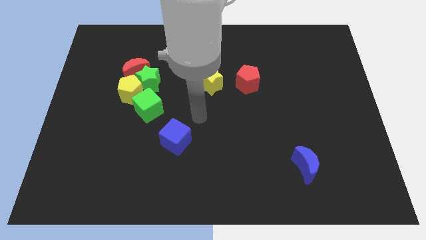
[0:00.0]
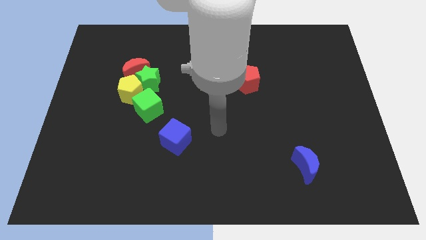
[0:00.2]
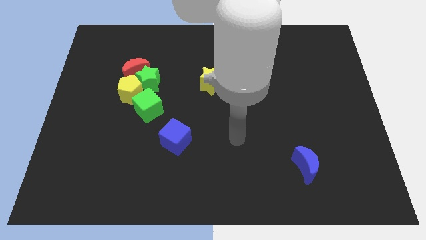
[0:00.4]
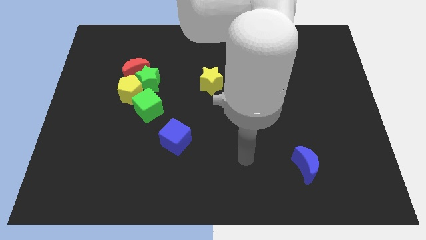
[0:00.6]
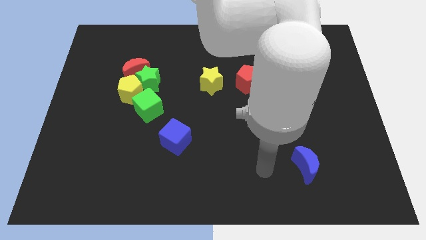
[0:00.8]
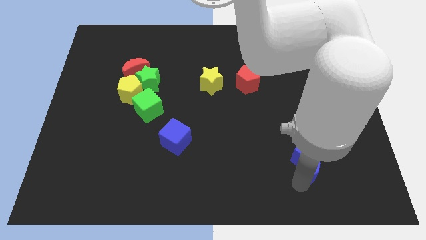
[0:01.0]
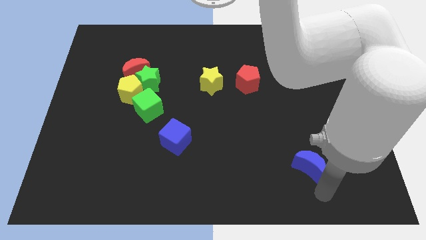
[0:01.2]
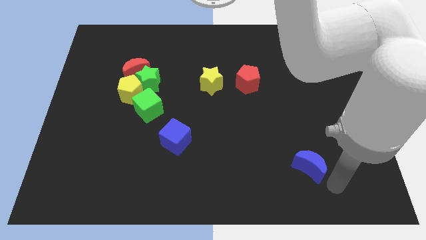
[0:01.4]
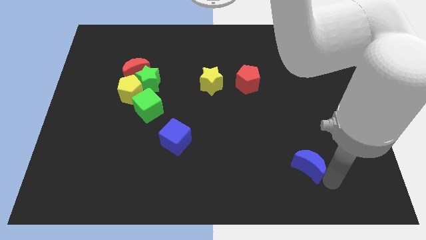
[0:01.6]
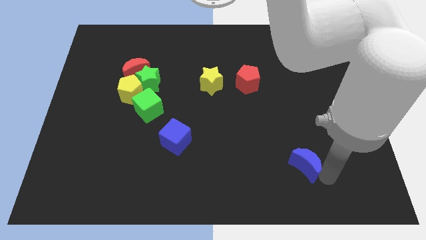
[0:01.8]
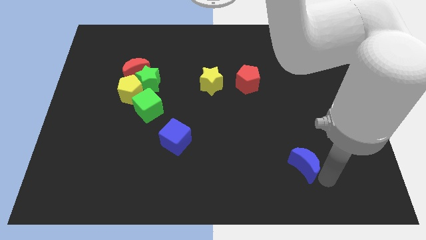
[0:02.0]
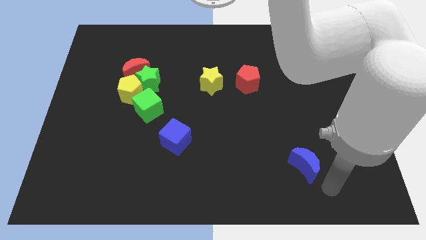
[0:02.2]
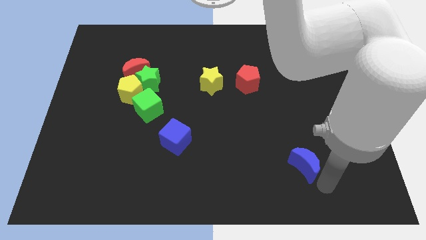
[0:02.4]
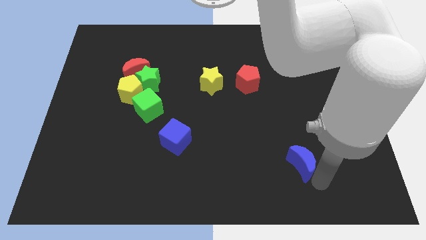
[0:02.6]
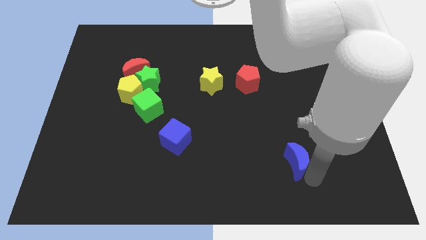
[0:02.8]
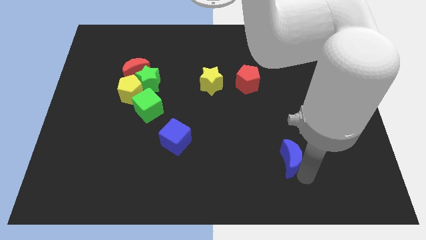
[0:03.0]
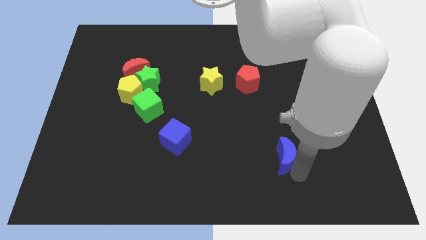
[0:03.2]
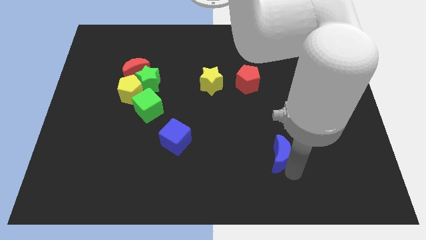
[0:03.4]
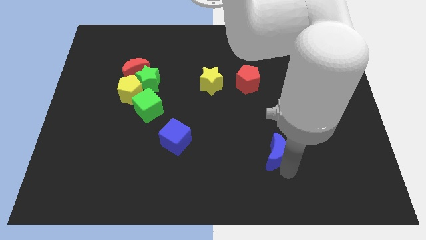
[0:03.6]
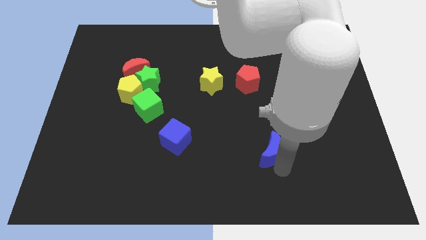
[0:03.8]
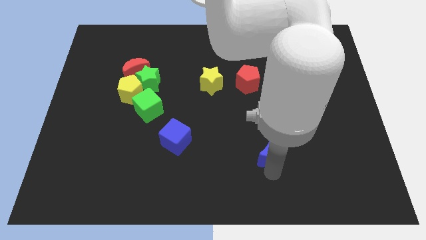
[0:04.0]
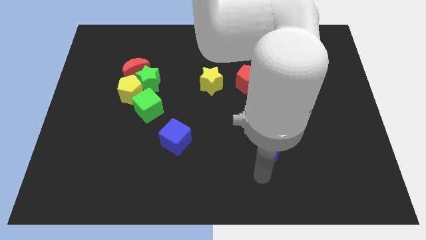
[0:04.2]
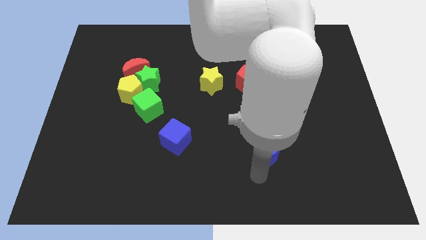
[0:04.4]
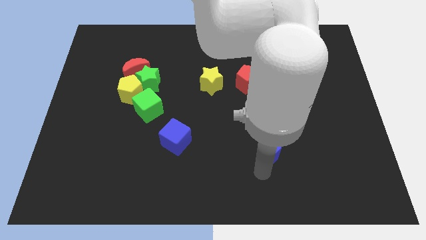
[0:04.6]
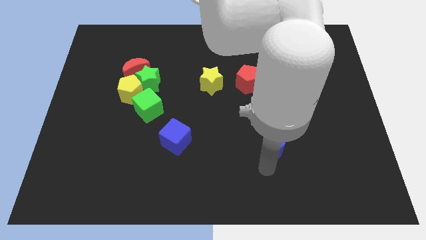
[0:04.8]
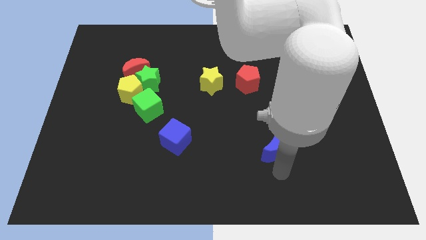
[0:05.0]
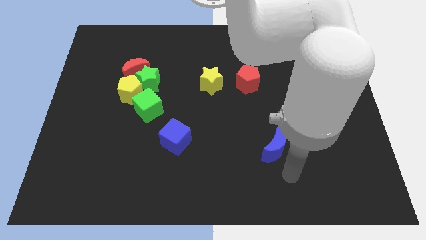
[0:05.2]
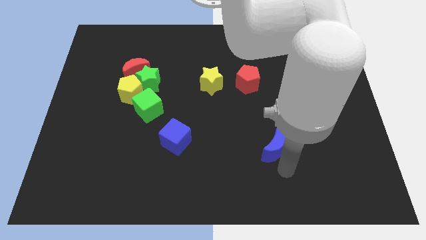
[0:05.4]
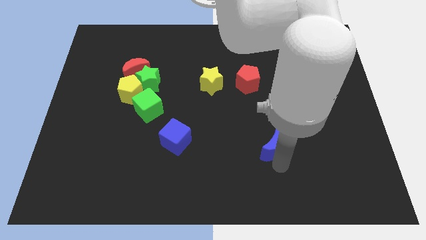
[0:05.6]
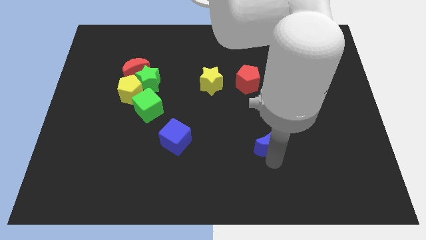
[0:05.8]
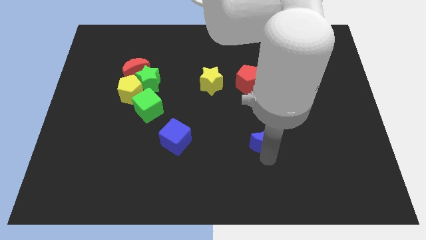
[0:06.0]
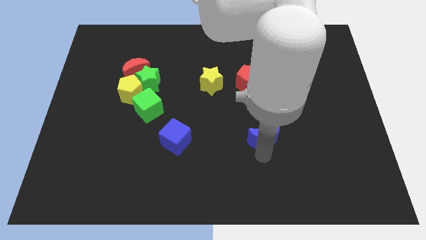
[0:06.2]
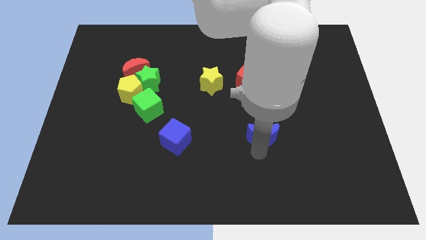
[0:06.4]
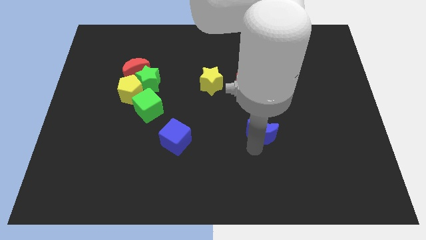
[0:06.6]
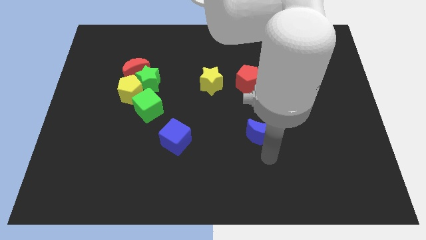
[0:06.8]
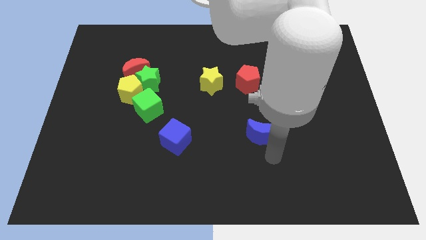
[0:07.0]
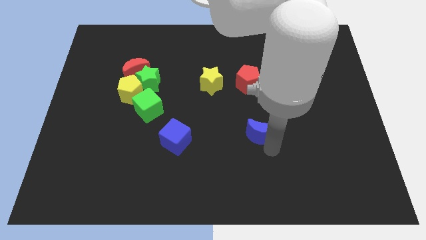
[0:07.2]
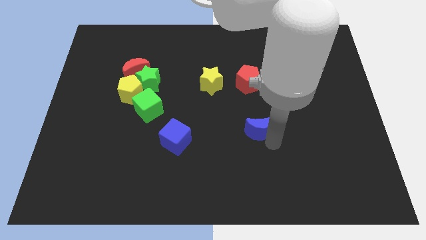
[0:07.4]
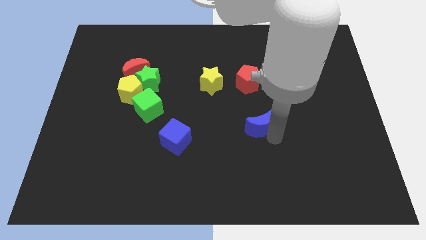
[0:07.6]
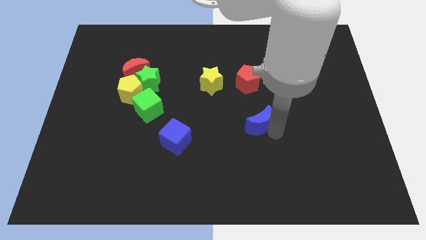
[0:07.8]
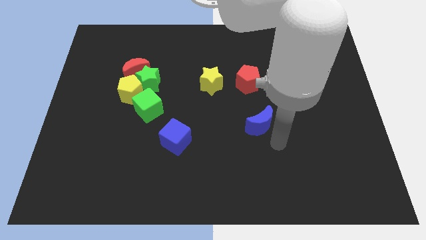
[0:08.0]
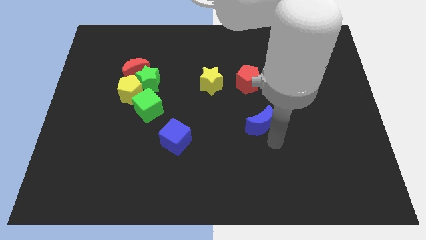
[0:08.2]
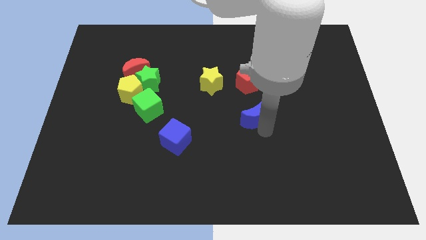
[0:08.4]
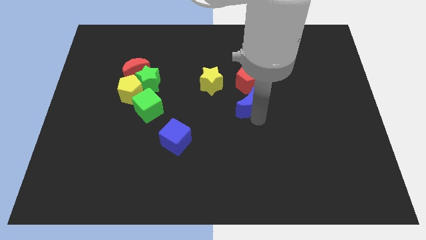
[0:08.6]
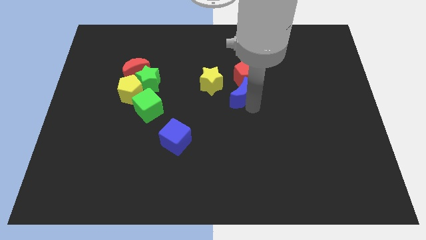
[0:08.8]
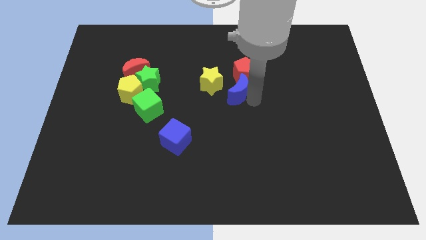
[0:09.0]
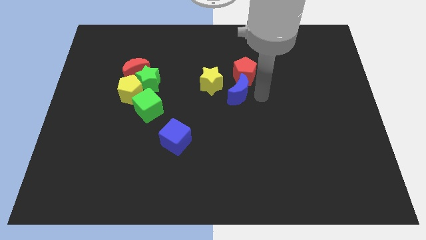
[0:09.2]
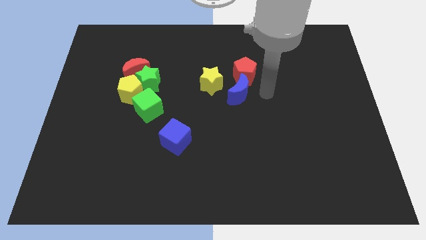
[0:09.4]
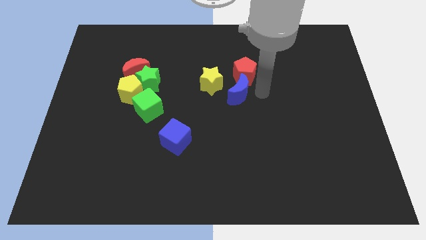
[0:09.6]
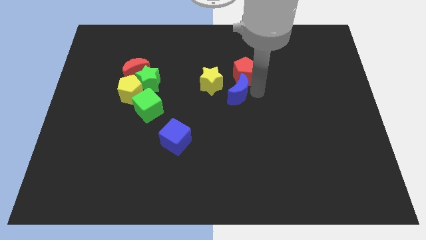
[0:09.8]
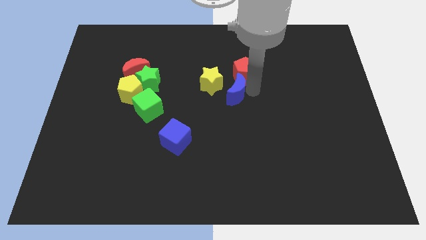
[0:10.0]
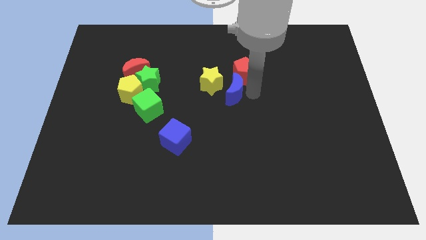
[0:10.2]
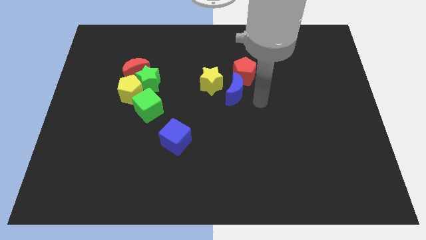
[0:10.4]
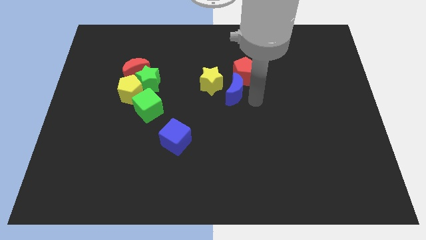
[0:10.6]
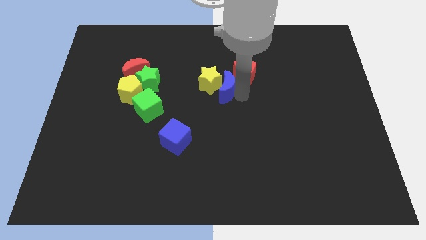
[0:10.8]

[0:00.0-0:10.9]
put the blue moon to the yellow star

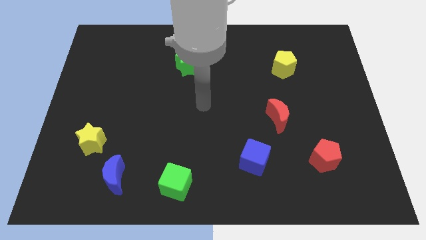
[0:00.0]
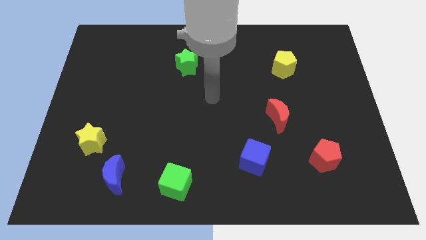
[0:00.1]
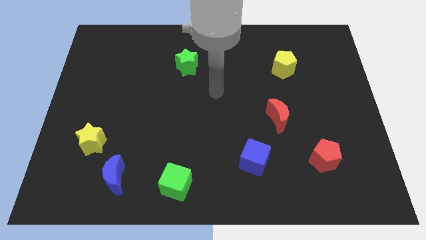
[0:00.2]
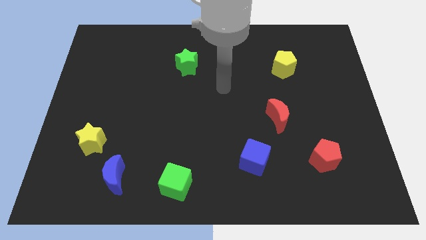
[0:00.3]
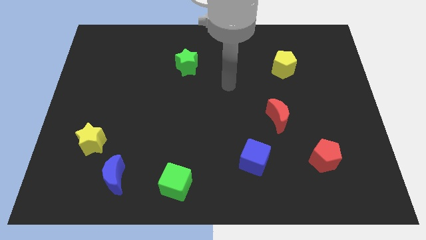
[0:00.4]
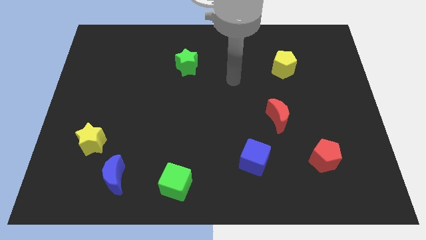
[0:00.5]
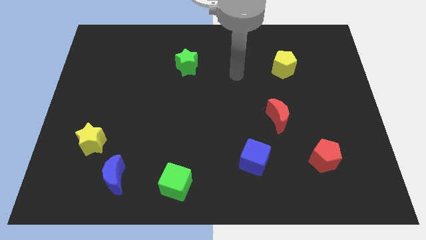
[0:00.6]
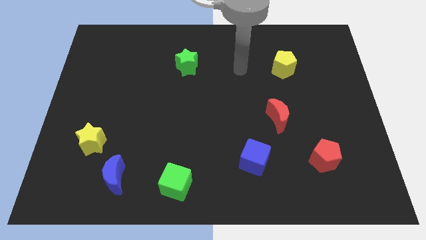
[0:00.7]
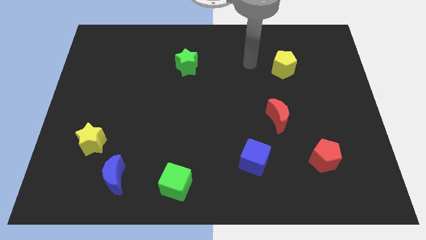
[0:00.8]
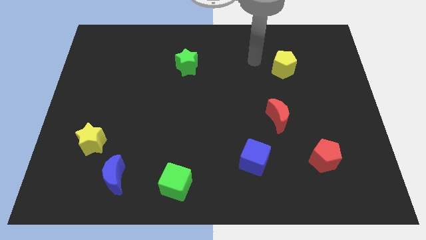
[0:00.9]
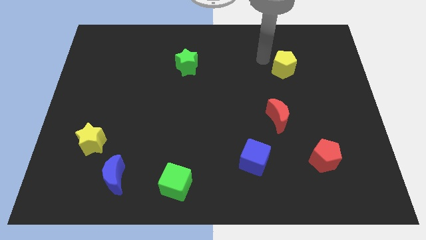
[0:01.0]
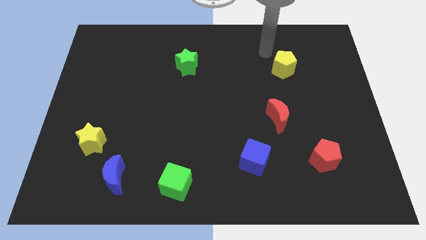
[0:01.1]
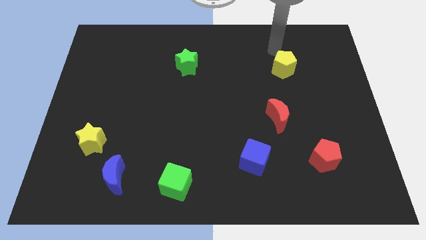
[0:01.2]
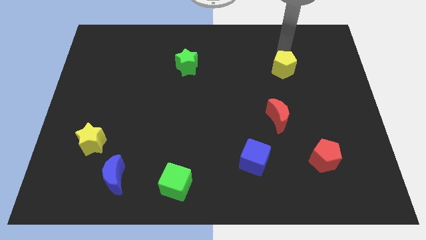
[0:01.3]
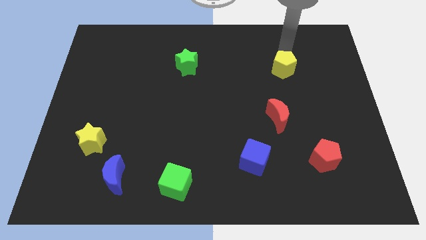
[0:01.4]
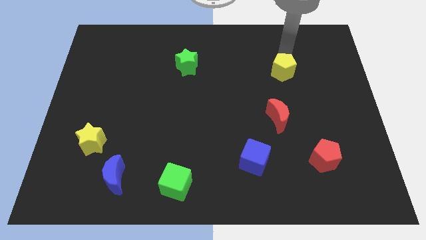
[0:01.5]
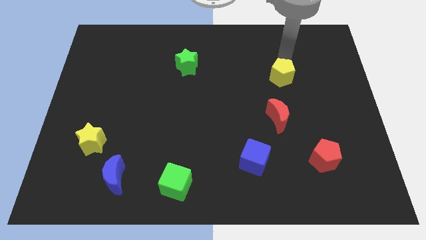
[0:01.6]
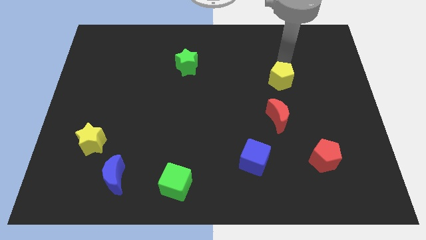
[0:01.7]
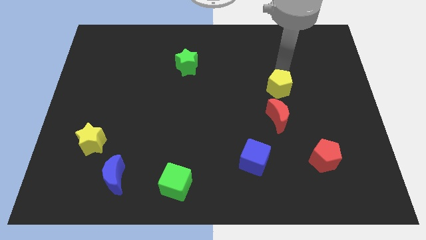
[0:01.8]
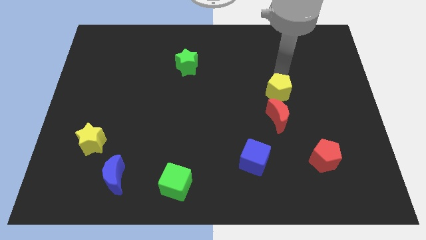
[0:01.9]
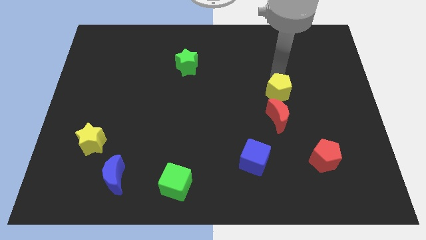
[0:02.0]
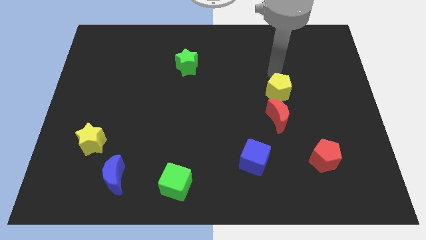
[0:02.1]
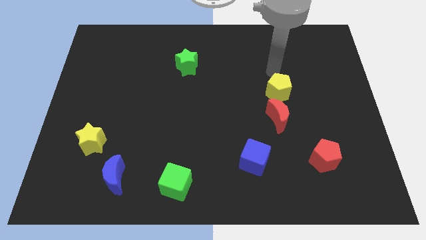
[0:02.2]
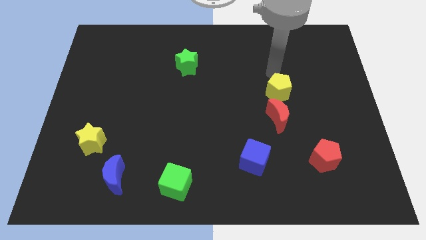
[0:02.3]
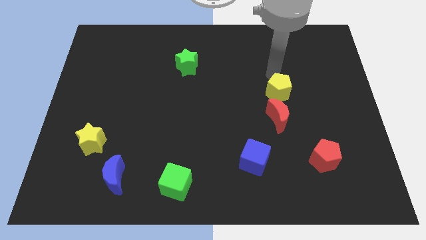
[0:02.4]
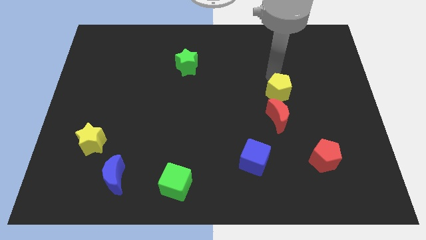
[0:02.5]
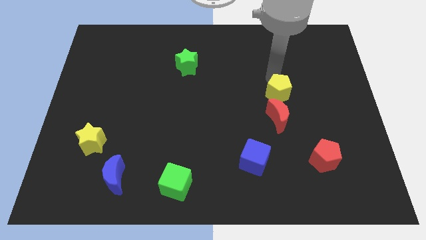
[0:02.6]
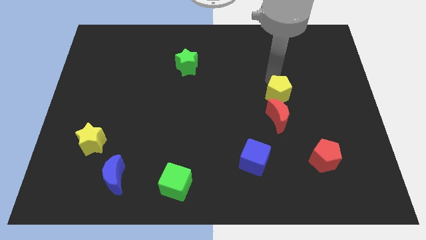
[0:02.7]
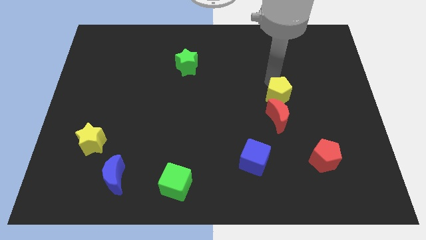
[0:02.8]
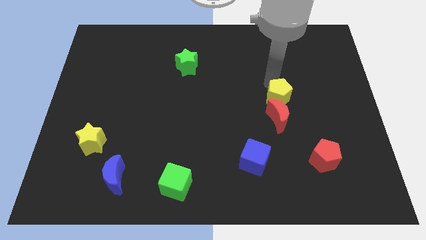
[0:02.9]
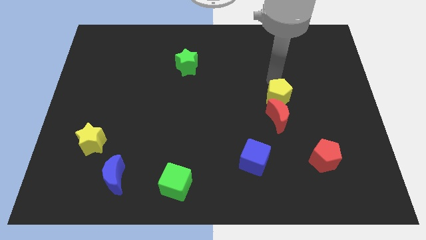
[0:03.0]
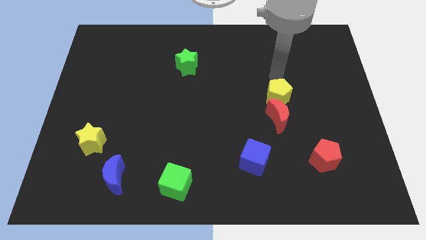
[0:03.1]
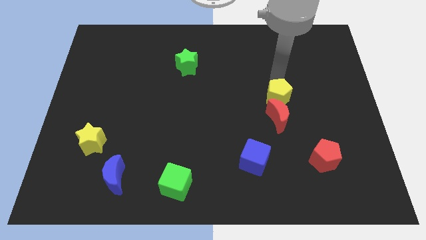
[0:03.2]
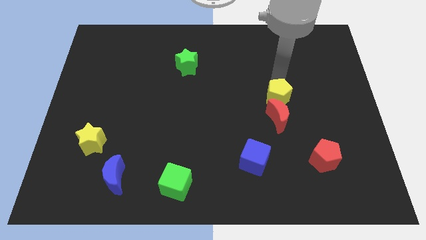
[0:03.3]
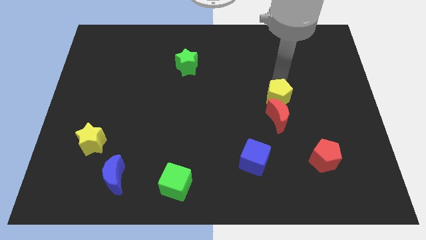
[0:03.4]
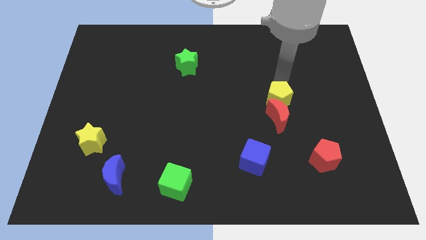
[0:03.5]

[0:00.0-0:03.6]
push the yellow pentagon next to the red moon
